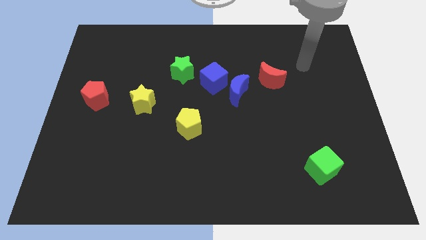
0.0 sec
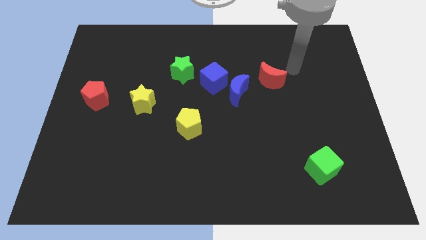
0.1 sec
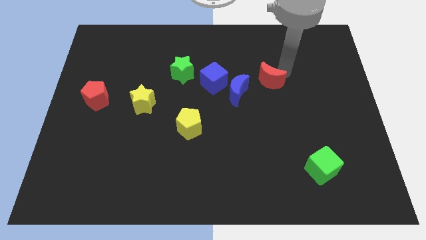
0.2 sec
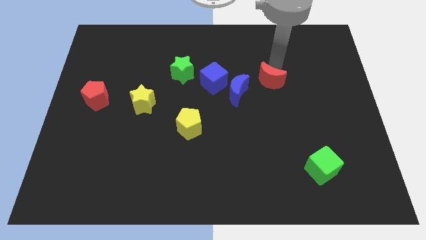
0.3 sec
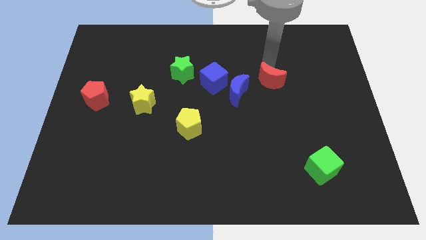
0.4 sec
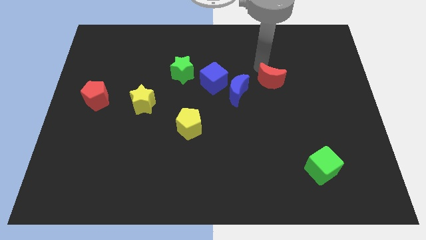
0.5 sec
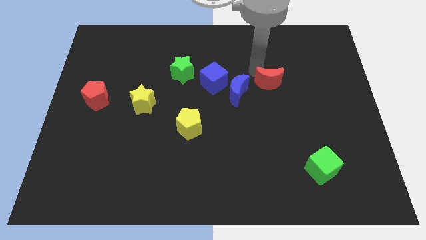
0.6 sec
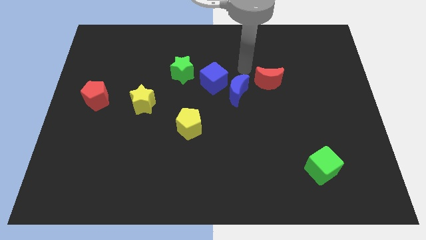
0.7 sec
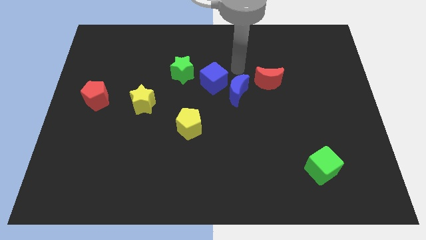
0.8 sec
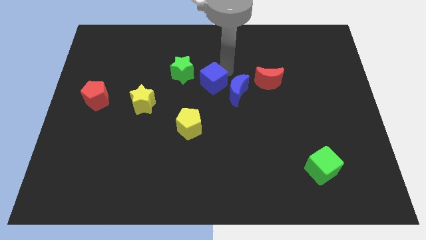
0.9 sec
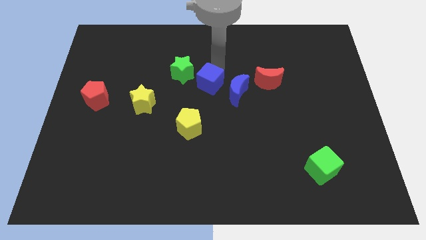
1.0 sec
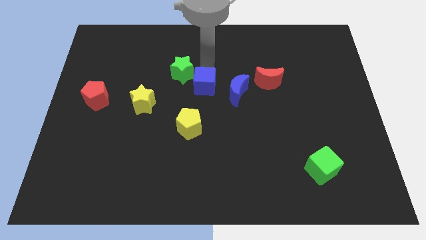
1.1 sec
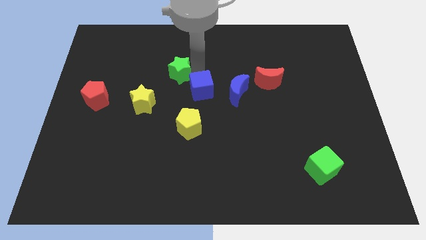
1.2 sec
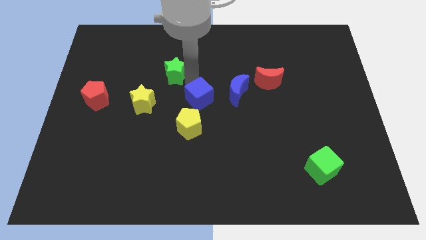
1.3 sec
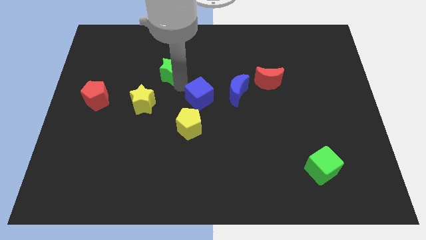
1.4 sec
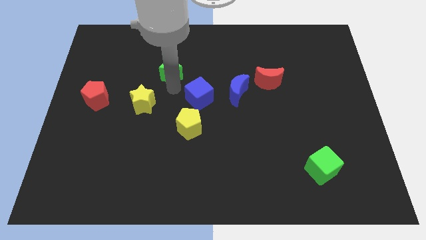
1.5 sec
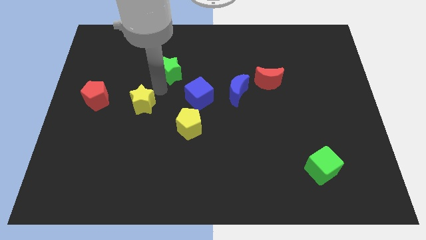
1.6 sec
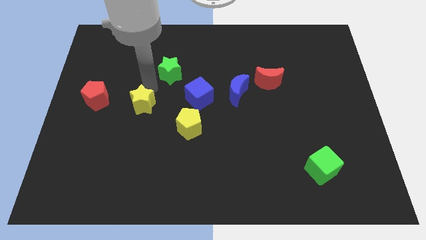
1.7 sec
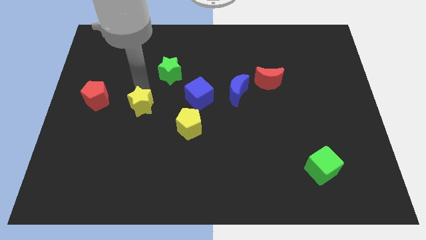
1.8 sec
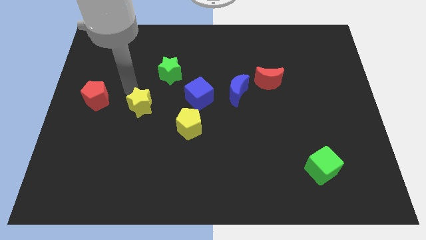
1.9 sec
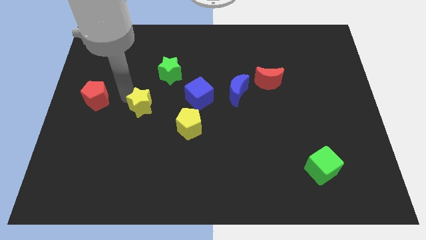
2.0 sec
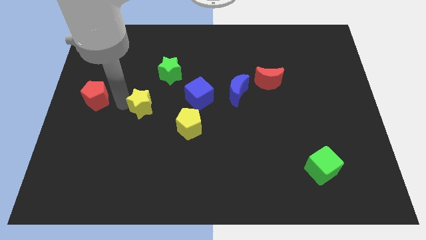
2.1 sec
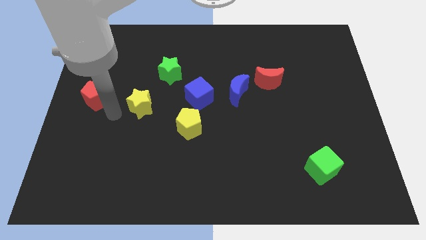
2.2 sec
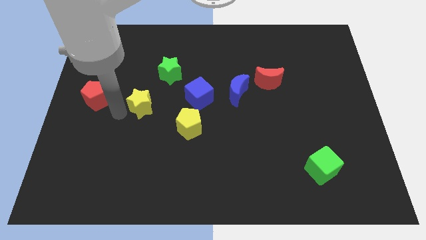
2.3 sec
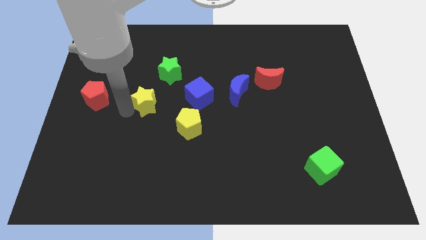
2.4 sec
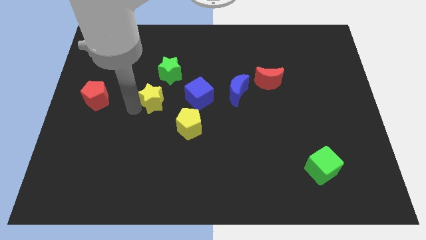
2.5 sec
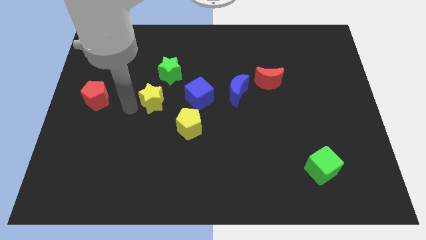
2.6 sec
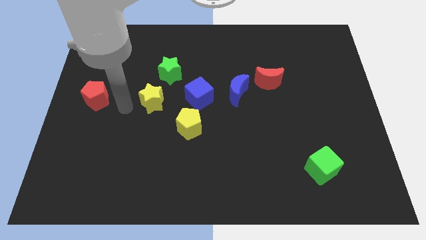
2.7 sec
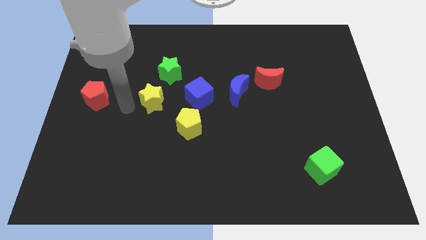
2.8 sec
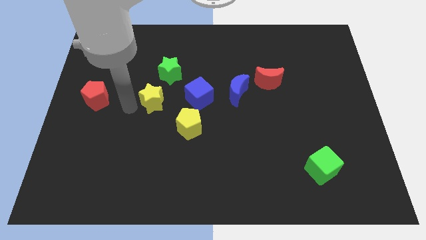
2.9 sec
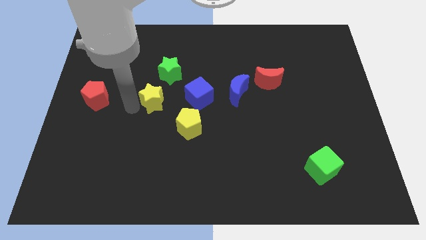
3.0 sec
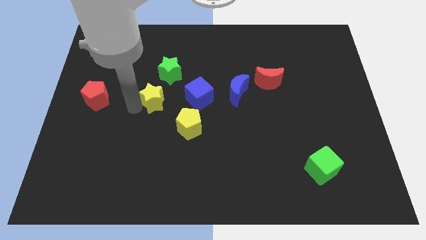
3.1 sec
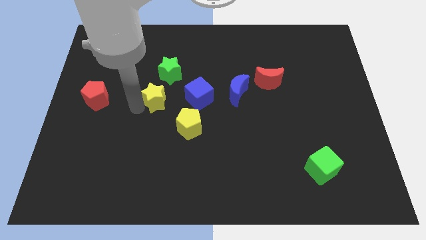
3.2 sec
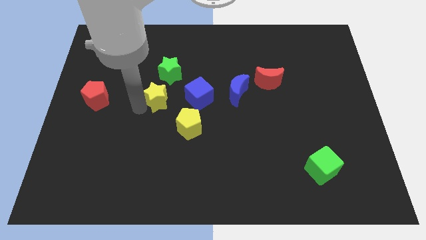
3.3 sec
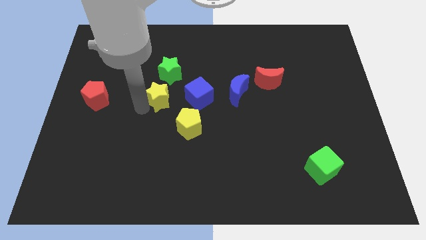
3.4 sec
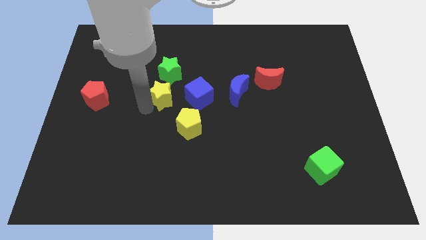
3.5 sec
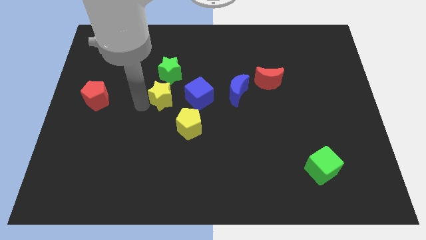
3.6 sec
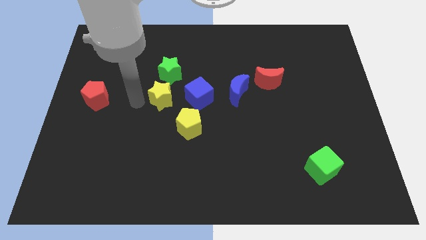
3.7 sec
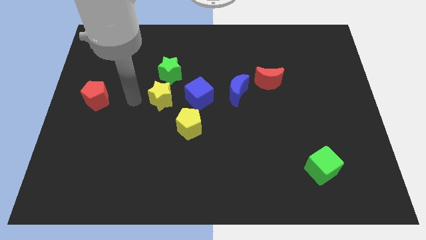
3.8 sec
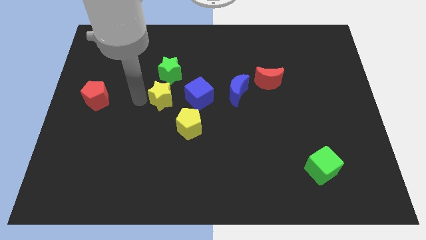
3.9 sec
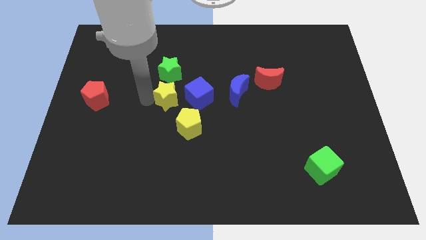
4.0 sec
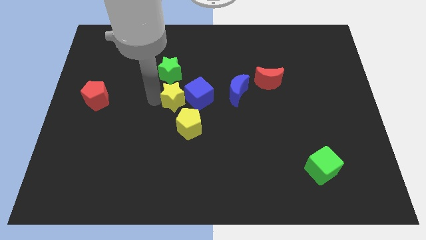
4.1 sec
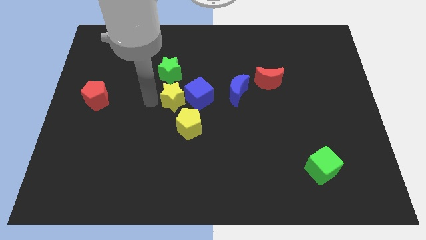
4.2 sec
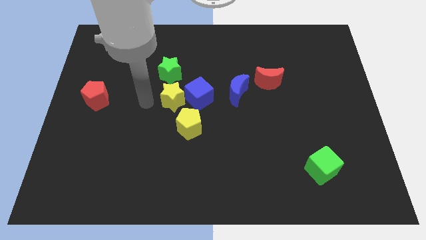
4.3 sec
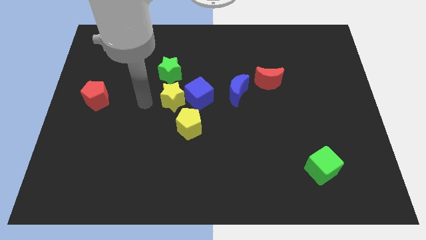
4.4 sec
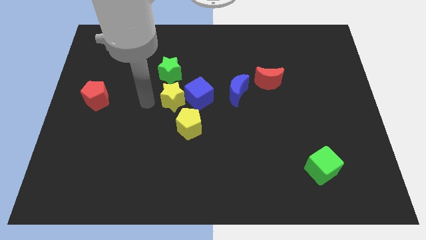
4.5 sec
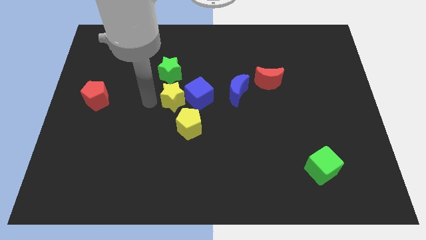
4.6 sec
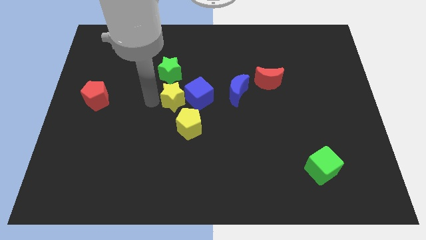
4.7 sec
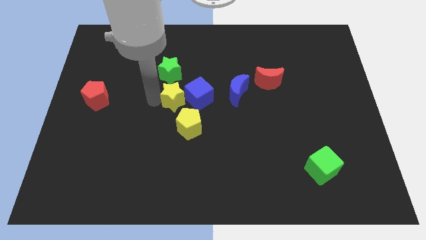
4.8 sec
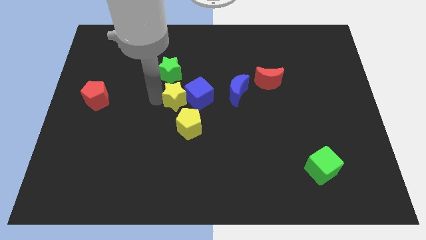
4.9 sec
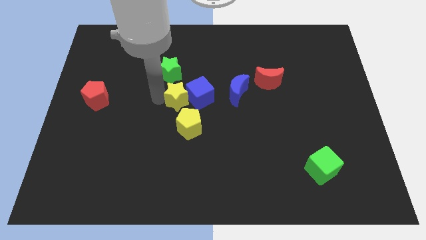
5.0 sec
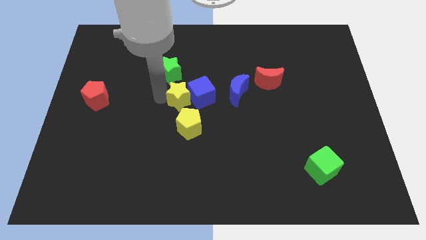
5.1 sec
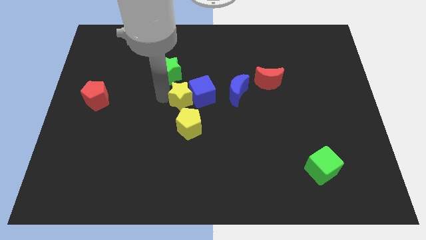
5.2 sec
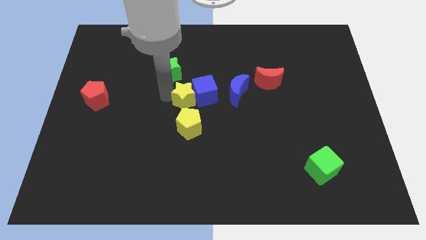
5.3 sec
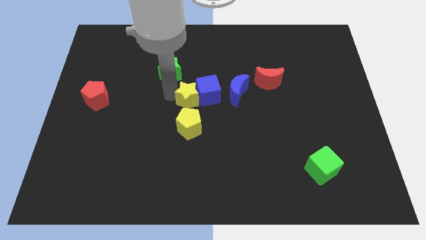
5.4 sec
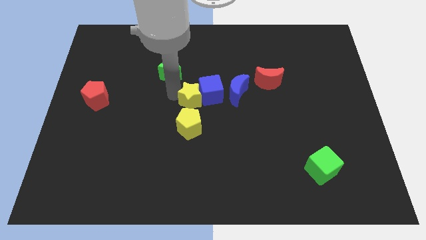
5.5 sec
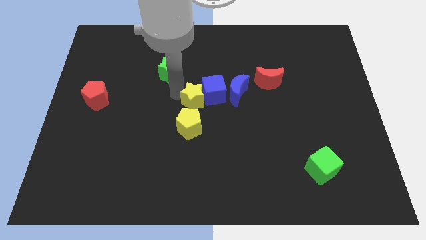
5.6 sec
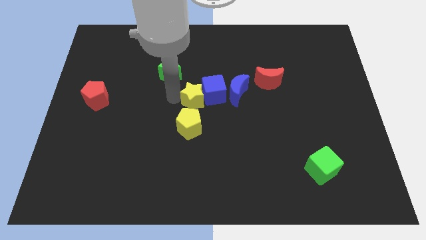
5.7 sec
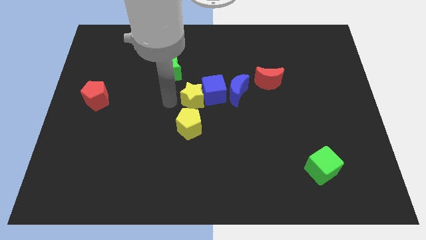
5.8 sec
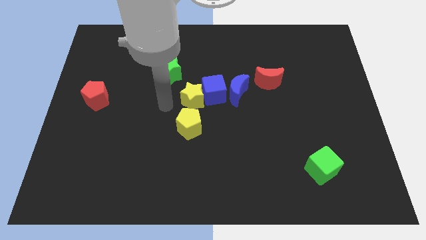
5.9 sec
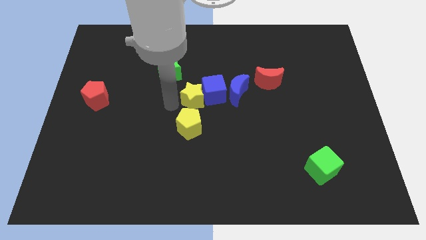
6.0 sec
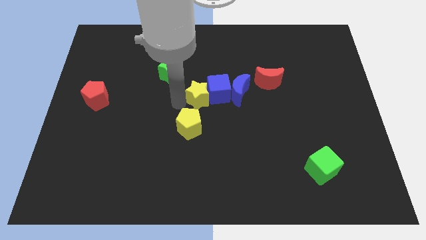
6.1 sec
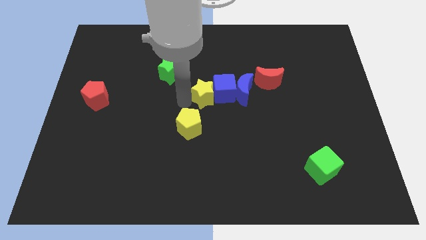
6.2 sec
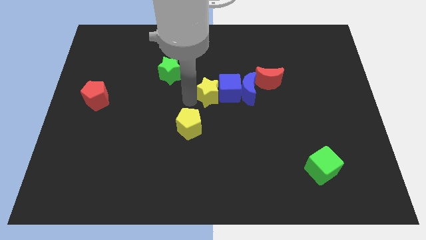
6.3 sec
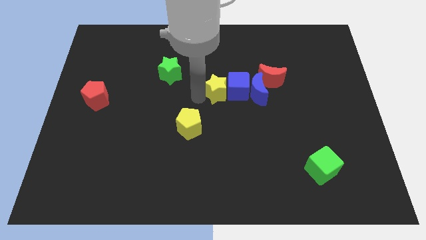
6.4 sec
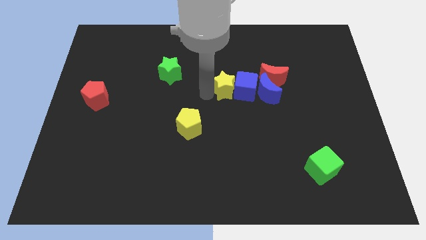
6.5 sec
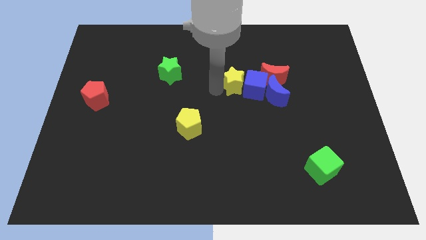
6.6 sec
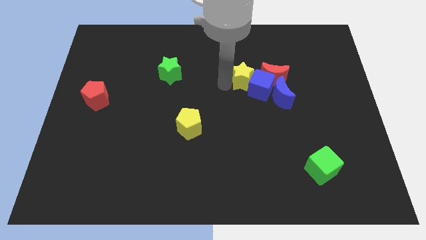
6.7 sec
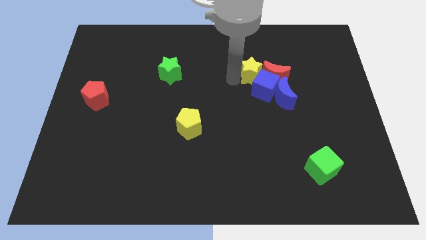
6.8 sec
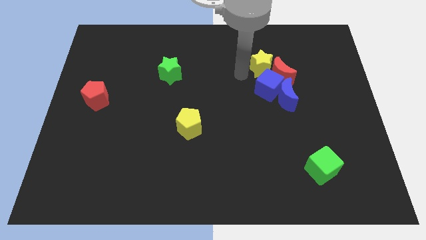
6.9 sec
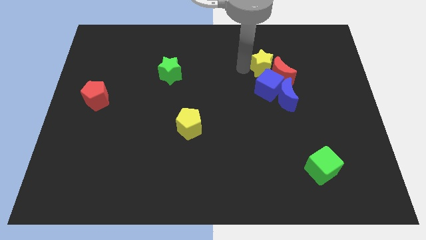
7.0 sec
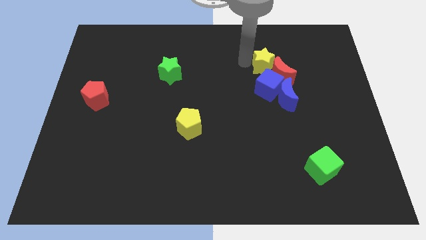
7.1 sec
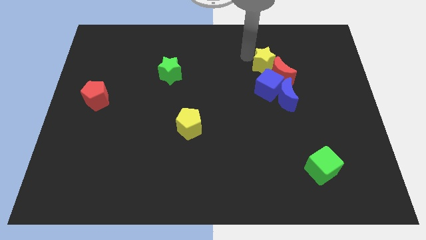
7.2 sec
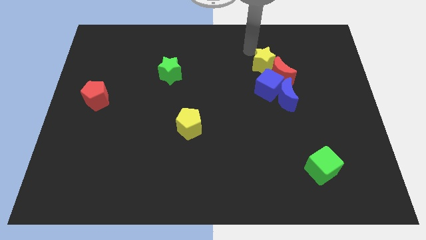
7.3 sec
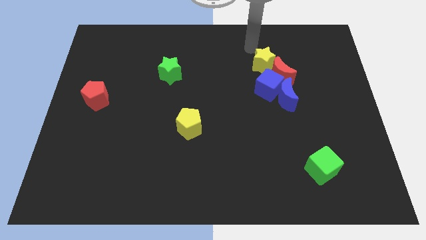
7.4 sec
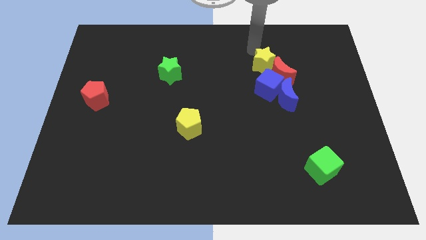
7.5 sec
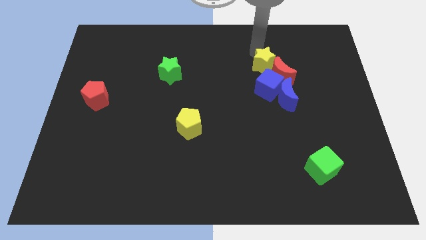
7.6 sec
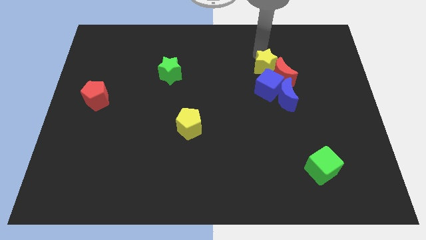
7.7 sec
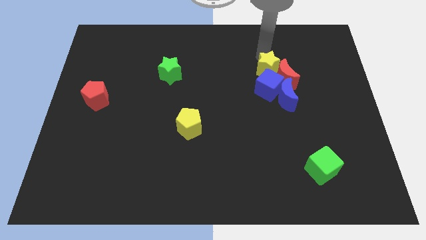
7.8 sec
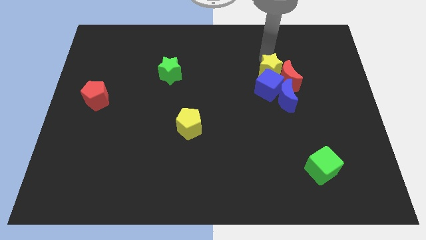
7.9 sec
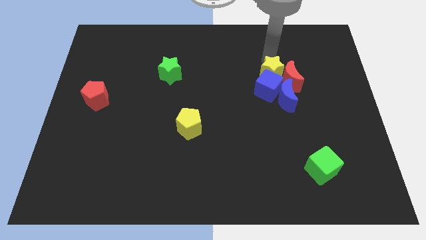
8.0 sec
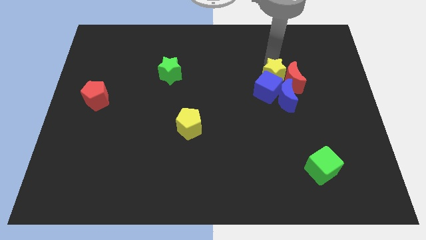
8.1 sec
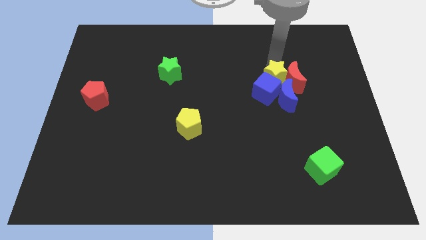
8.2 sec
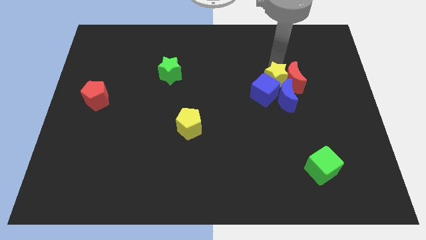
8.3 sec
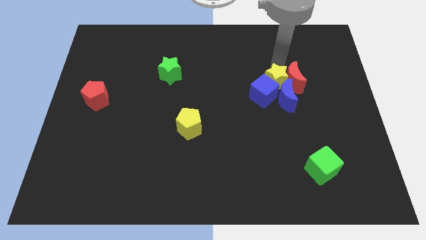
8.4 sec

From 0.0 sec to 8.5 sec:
slide the yellow star next to the blue moon
